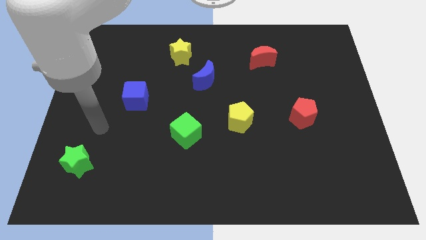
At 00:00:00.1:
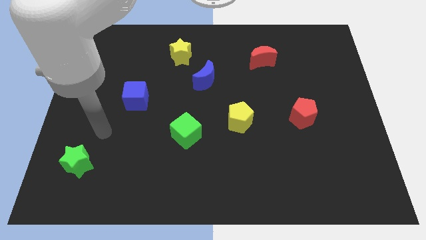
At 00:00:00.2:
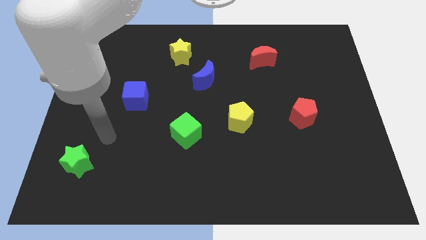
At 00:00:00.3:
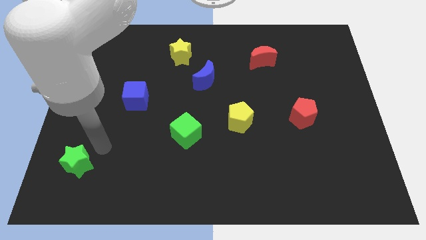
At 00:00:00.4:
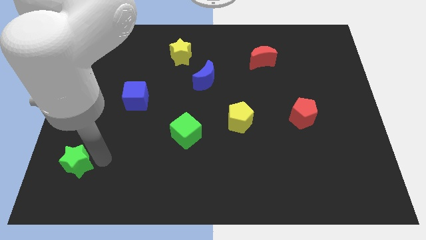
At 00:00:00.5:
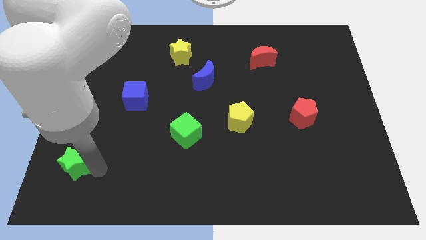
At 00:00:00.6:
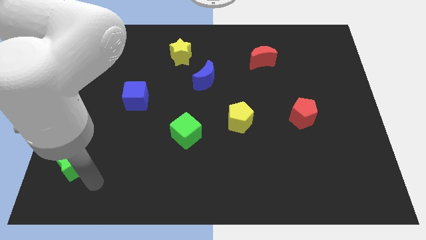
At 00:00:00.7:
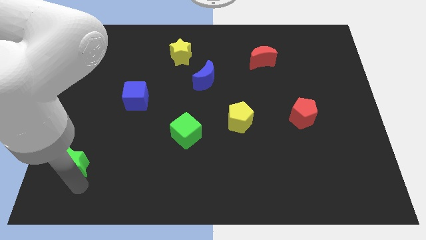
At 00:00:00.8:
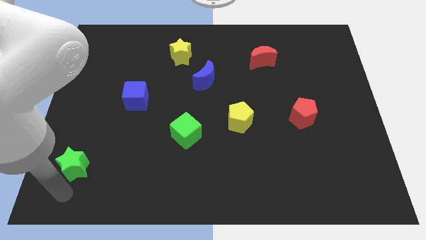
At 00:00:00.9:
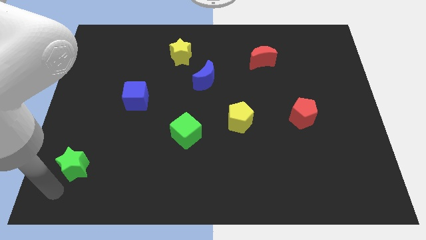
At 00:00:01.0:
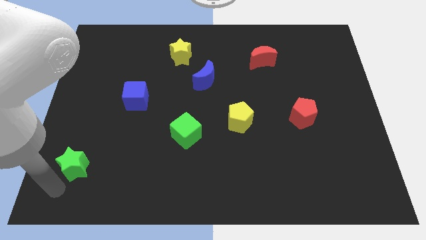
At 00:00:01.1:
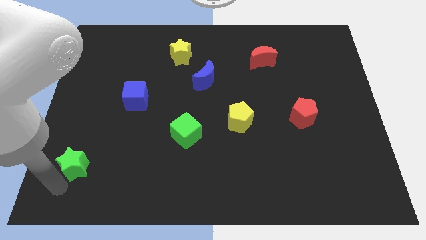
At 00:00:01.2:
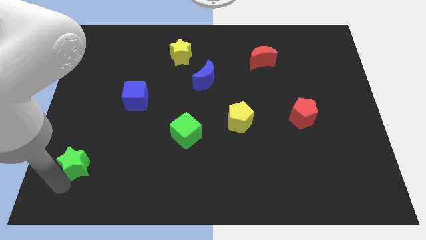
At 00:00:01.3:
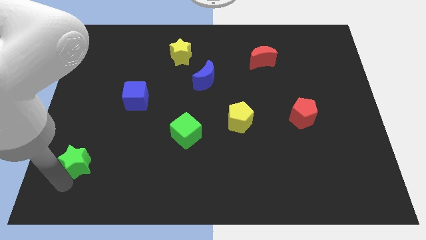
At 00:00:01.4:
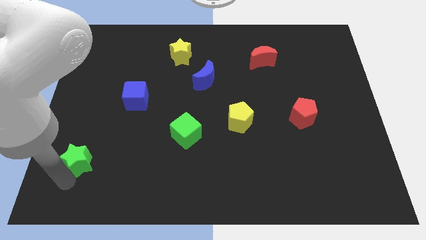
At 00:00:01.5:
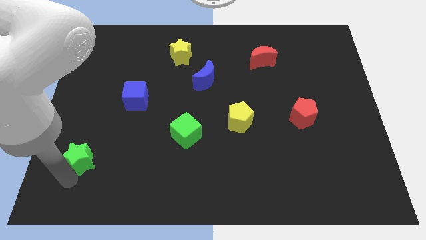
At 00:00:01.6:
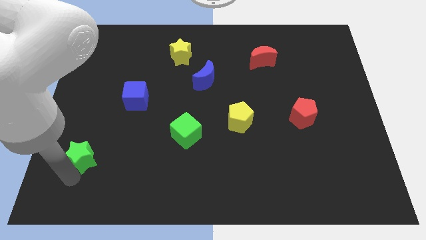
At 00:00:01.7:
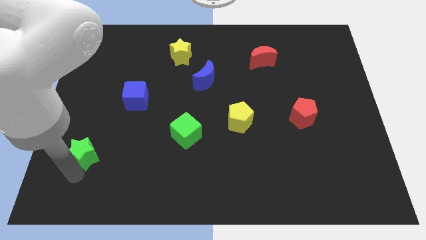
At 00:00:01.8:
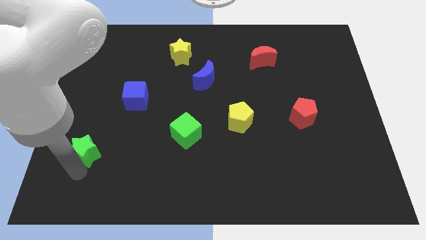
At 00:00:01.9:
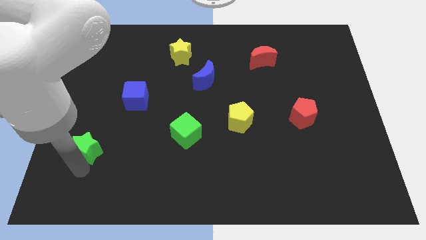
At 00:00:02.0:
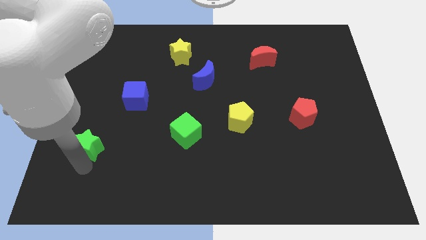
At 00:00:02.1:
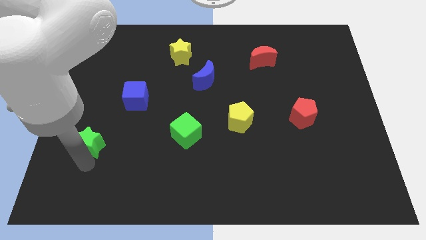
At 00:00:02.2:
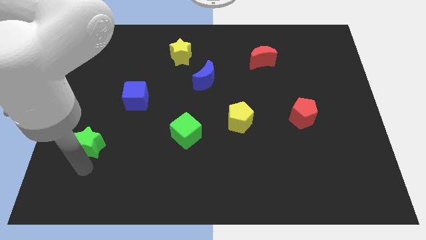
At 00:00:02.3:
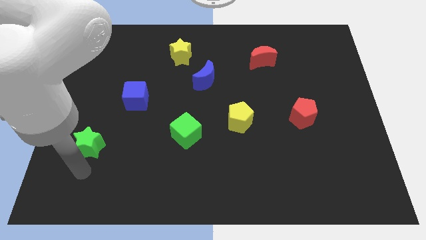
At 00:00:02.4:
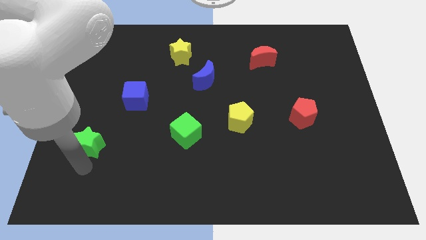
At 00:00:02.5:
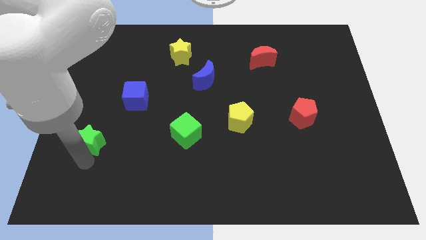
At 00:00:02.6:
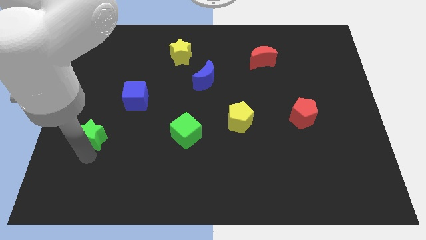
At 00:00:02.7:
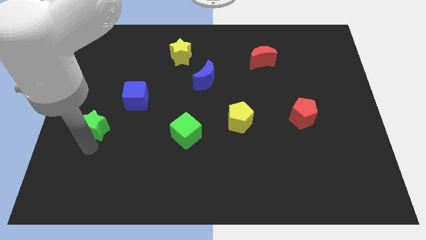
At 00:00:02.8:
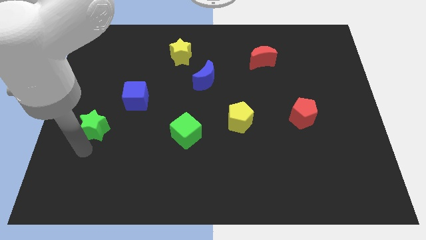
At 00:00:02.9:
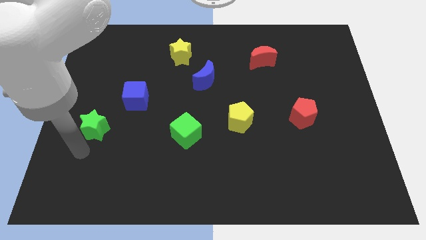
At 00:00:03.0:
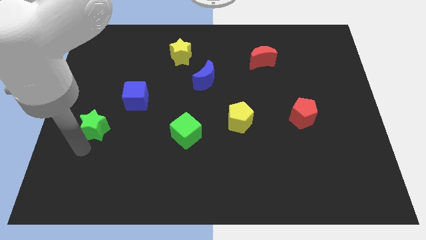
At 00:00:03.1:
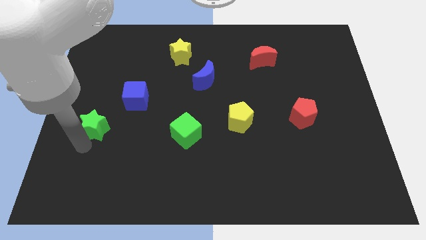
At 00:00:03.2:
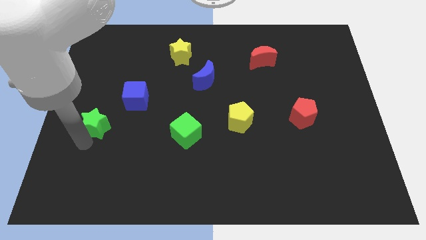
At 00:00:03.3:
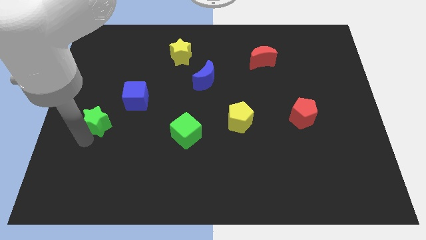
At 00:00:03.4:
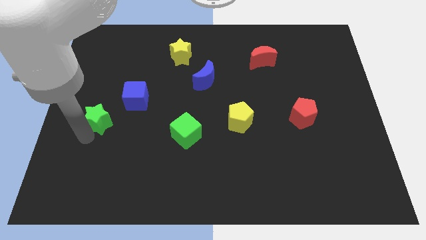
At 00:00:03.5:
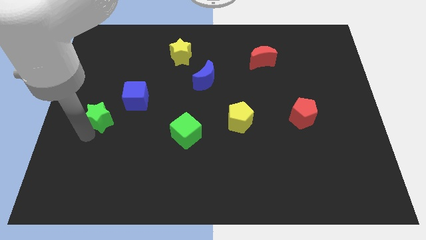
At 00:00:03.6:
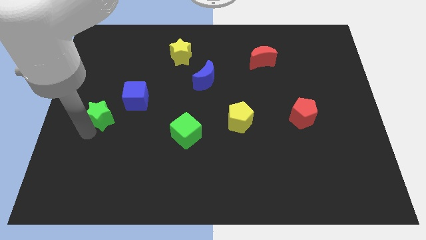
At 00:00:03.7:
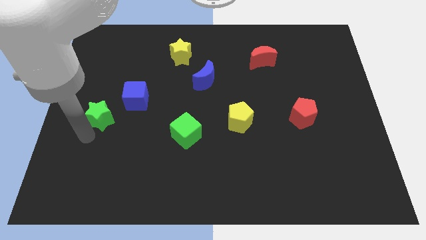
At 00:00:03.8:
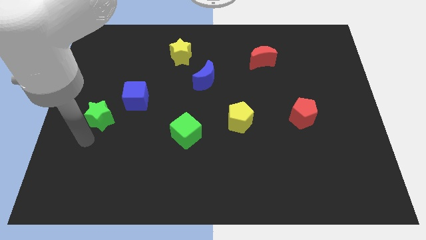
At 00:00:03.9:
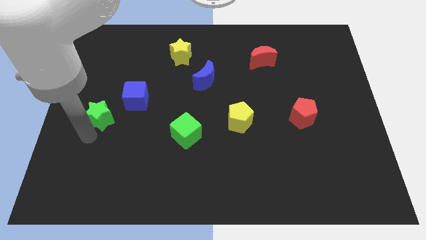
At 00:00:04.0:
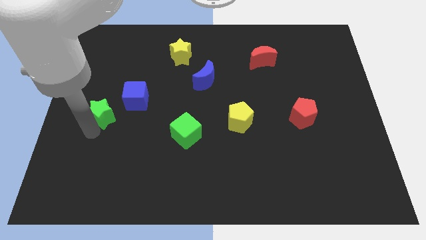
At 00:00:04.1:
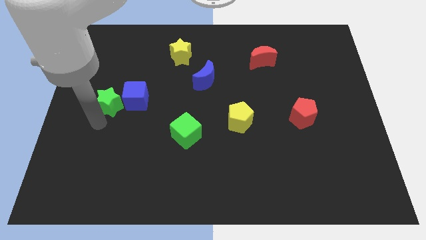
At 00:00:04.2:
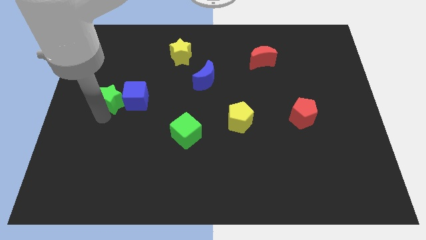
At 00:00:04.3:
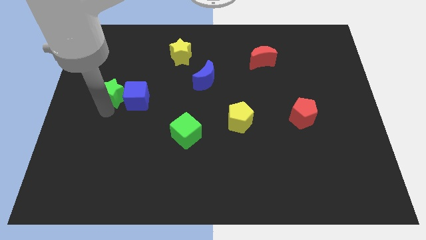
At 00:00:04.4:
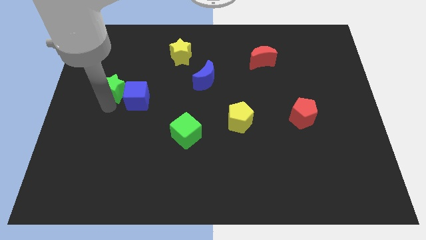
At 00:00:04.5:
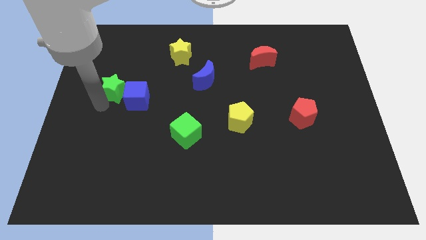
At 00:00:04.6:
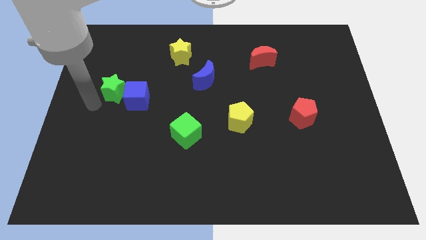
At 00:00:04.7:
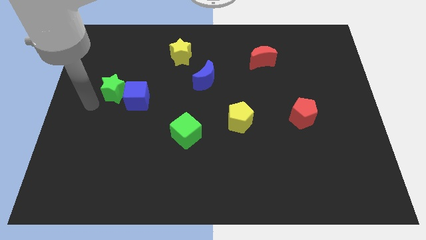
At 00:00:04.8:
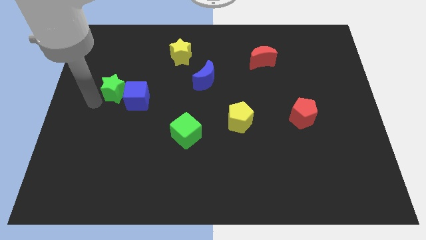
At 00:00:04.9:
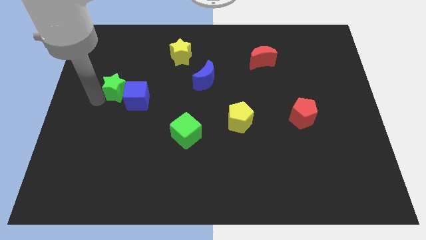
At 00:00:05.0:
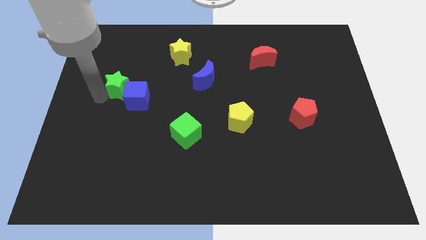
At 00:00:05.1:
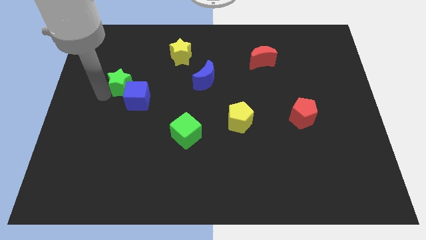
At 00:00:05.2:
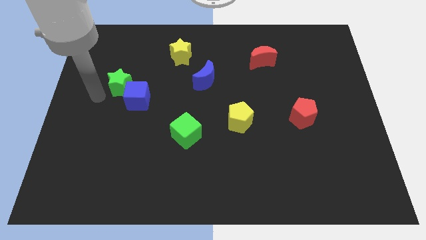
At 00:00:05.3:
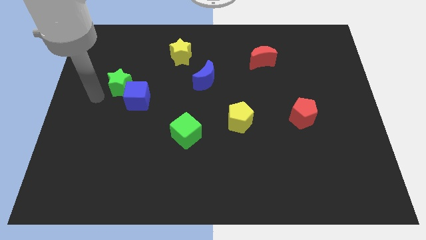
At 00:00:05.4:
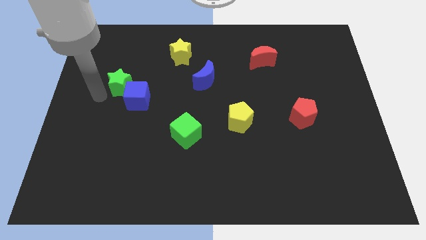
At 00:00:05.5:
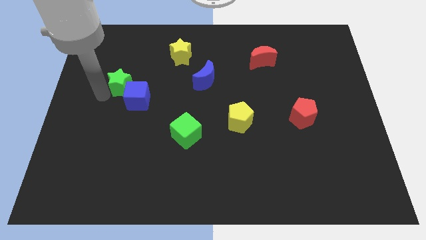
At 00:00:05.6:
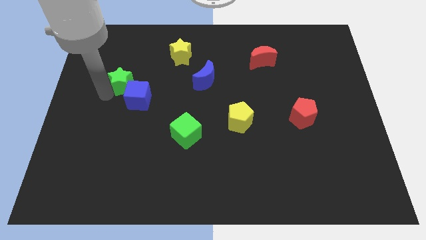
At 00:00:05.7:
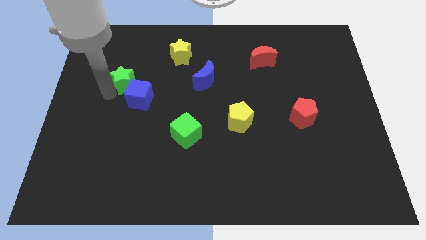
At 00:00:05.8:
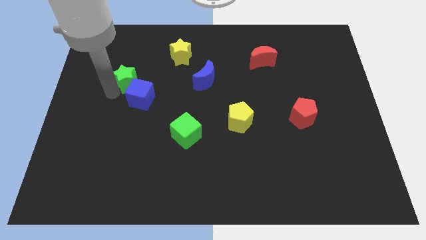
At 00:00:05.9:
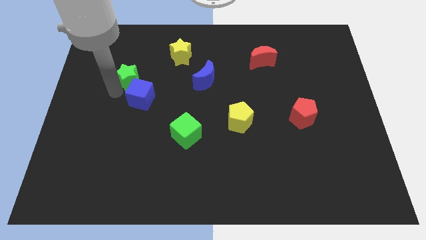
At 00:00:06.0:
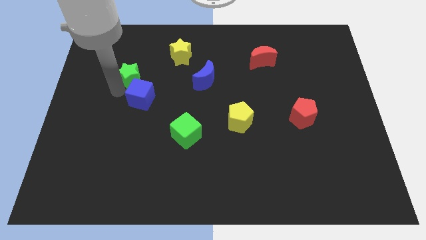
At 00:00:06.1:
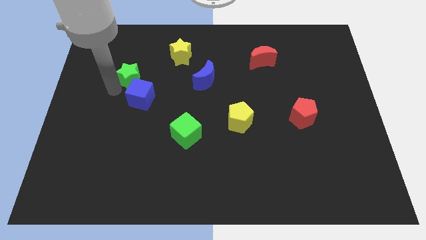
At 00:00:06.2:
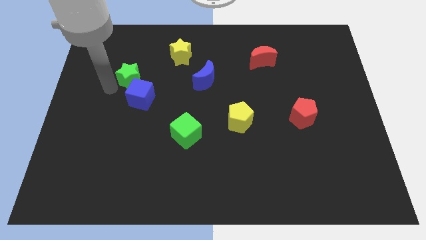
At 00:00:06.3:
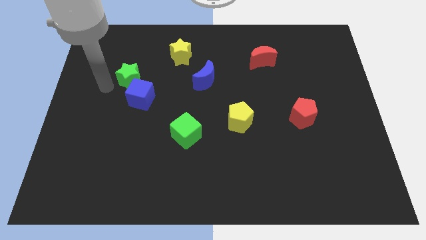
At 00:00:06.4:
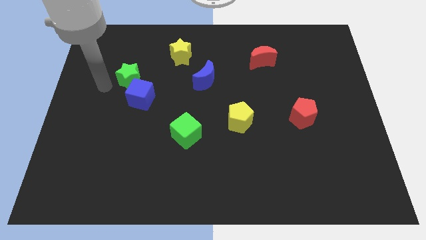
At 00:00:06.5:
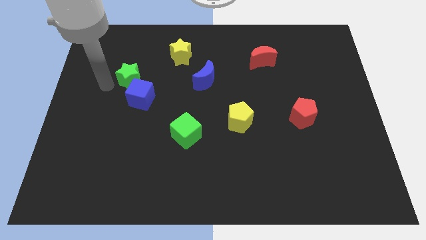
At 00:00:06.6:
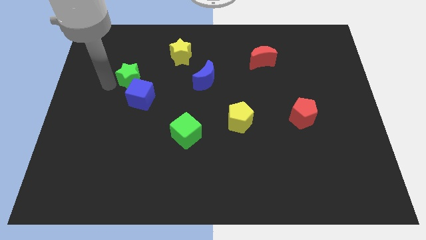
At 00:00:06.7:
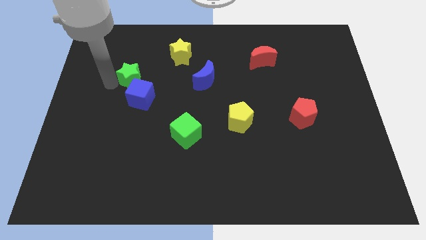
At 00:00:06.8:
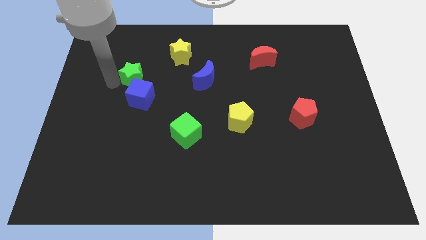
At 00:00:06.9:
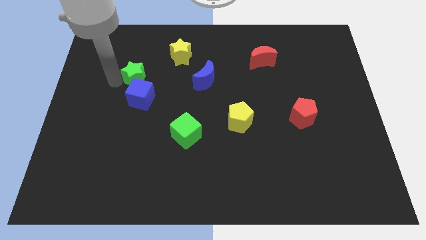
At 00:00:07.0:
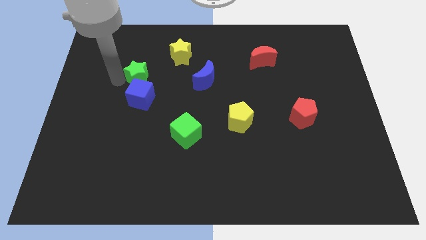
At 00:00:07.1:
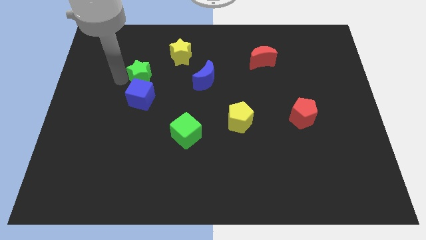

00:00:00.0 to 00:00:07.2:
slide the green star diagonally down and to the left of the yellow star

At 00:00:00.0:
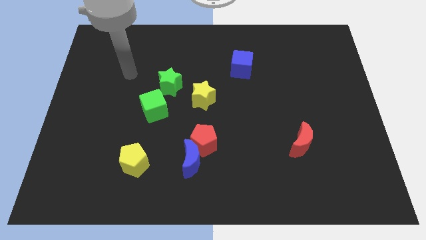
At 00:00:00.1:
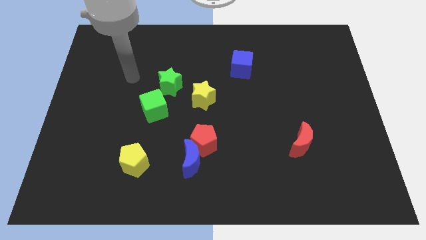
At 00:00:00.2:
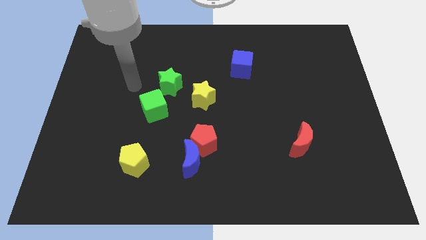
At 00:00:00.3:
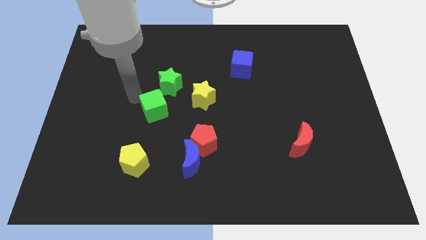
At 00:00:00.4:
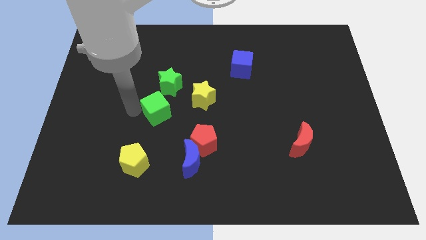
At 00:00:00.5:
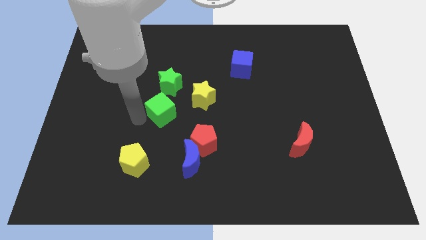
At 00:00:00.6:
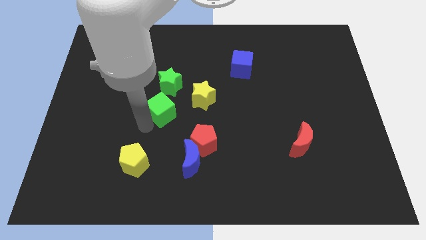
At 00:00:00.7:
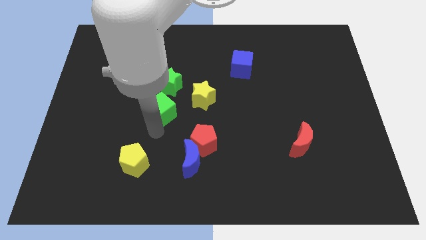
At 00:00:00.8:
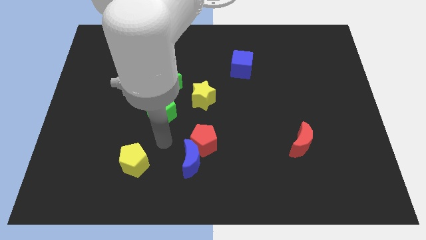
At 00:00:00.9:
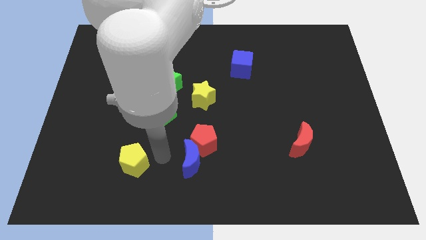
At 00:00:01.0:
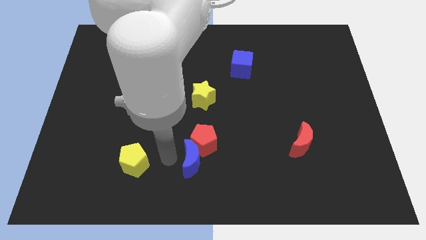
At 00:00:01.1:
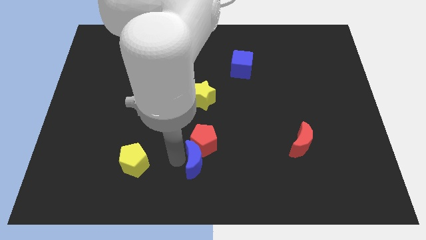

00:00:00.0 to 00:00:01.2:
move the blue moon to the bottom right side of the red pentagon
